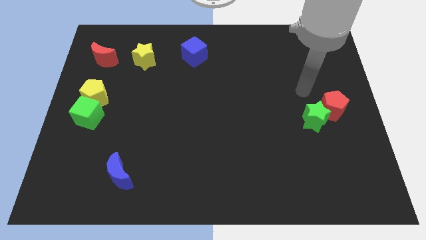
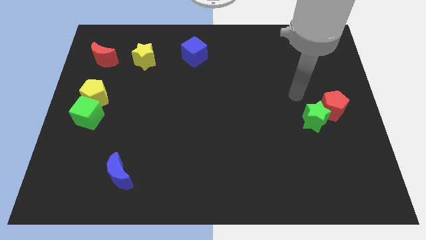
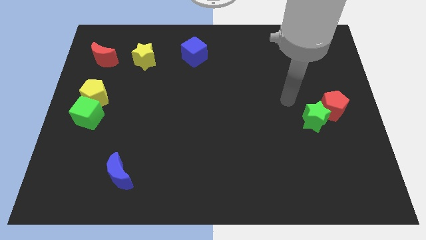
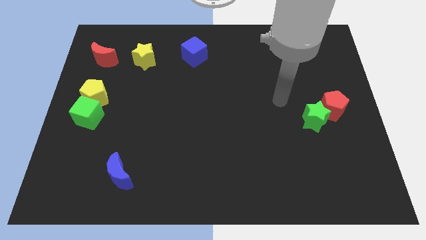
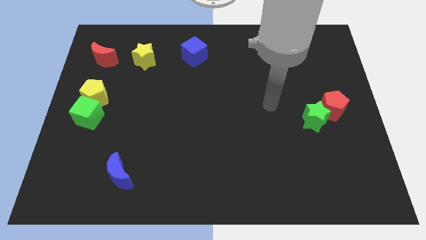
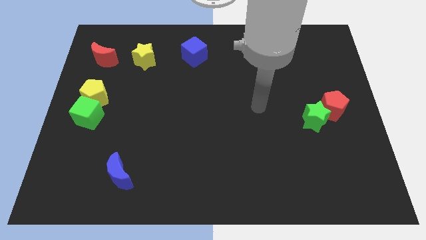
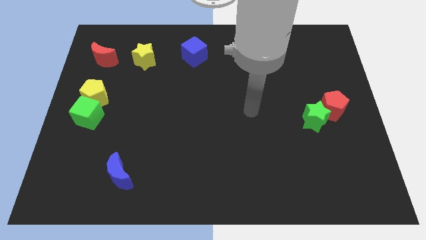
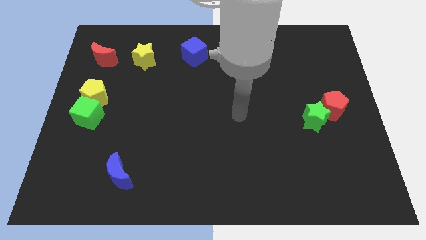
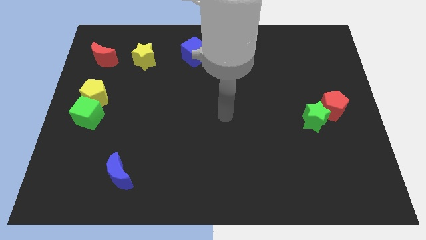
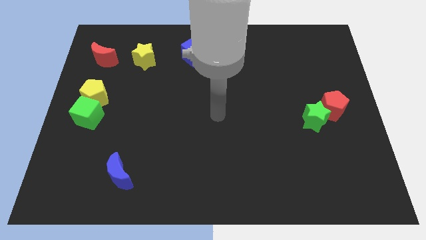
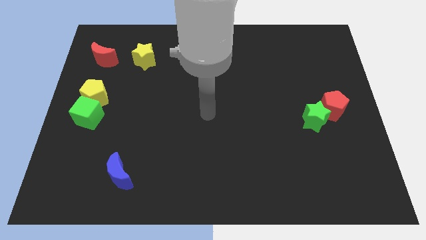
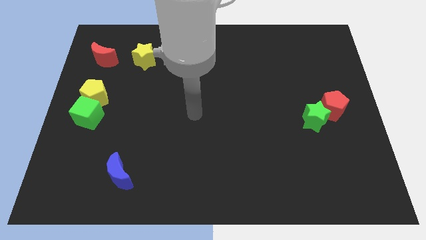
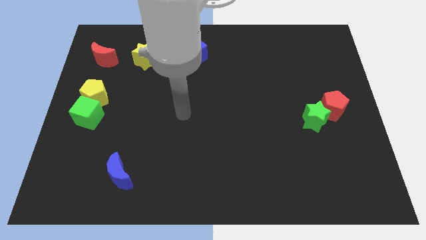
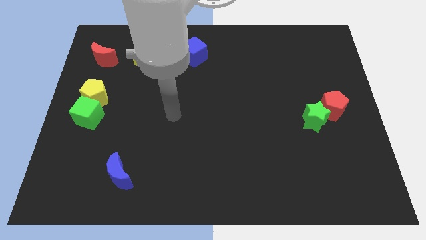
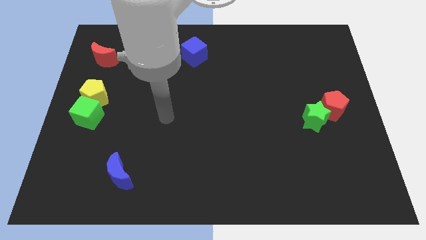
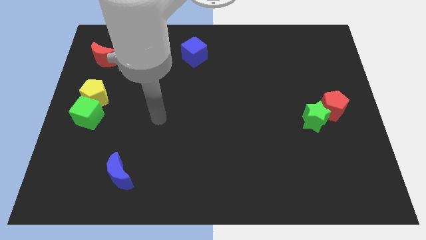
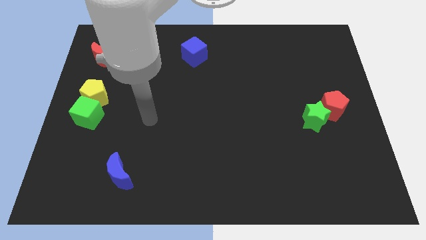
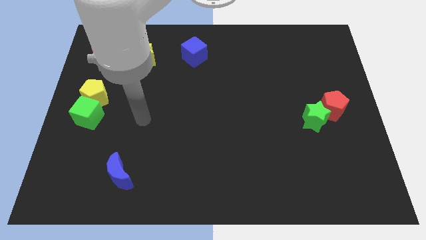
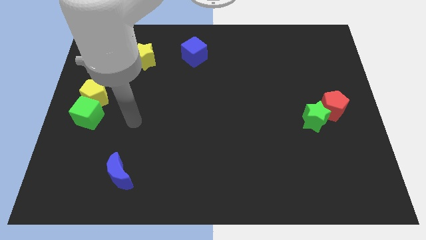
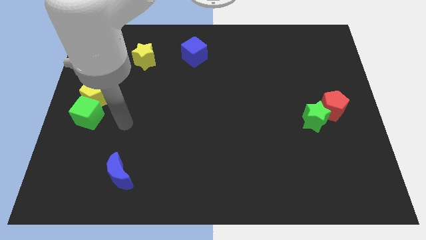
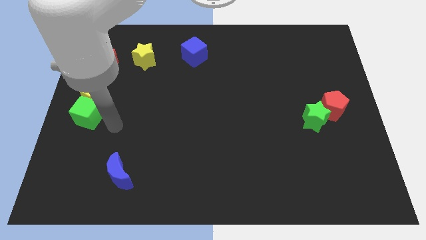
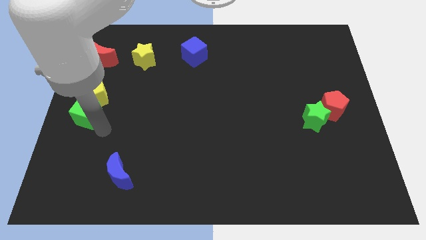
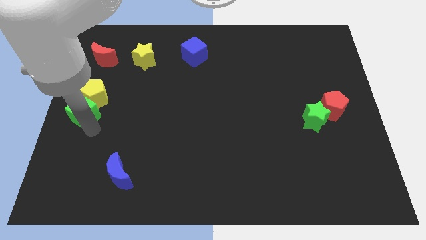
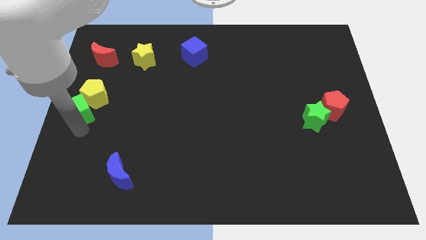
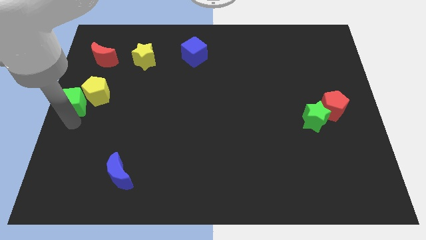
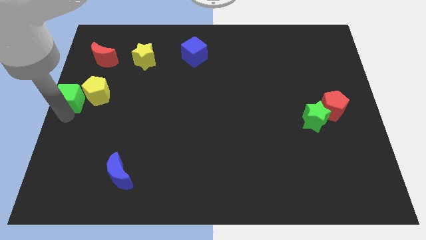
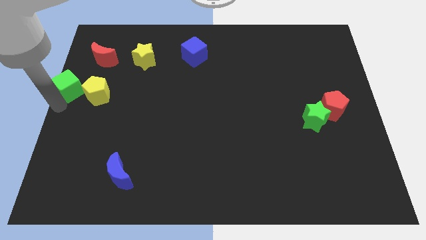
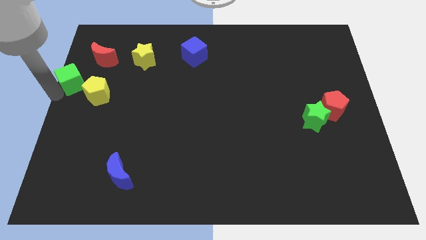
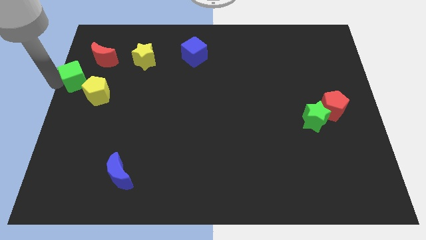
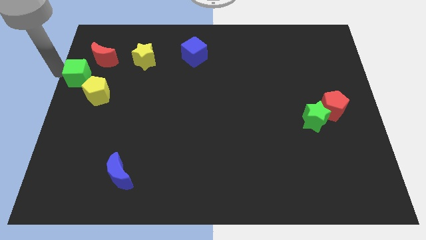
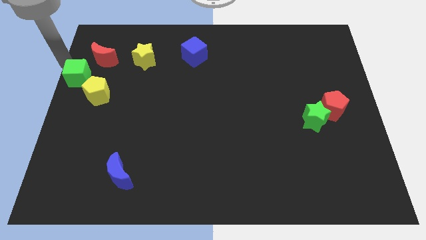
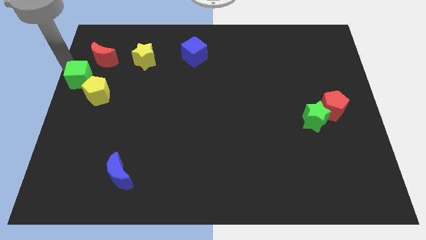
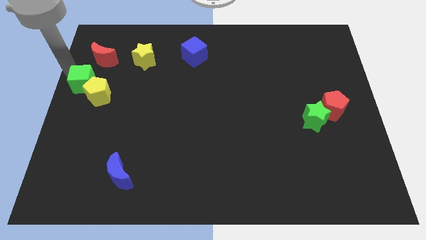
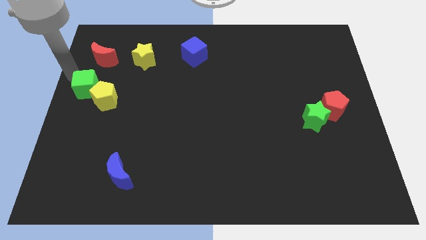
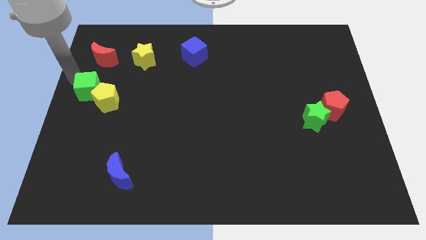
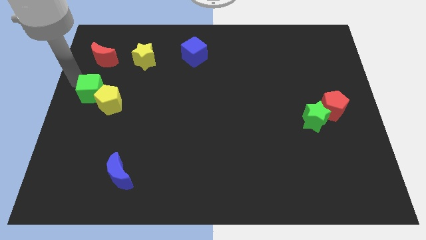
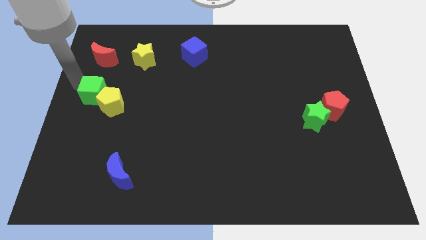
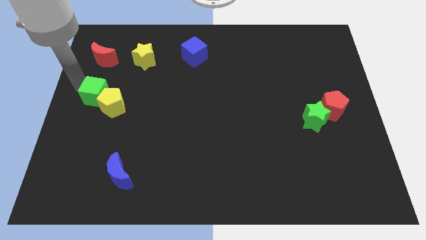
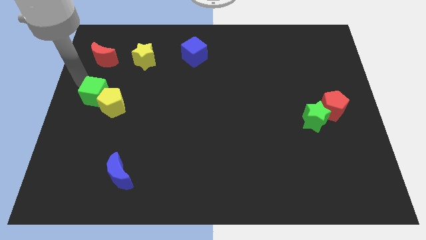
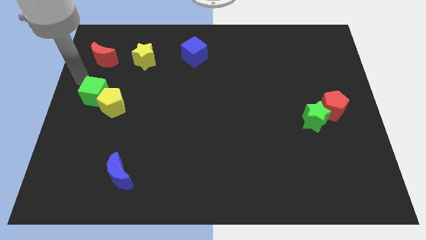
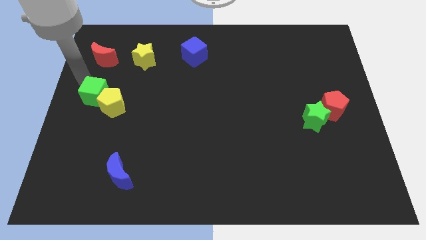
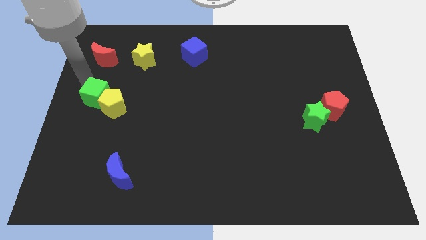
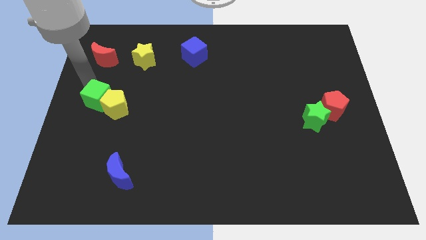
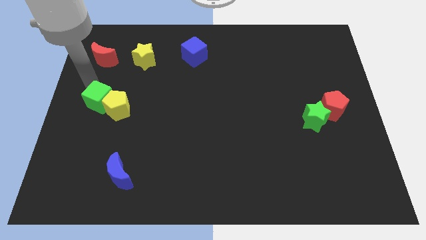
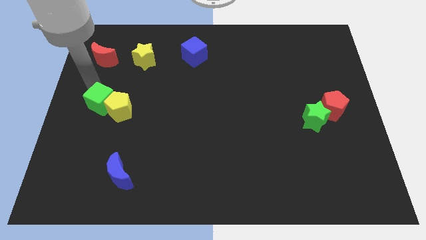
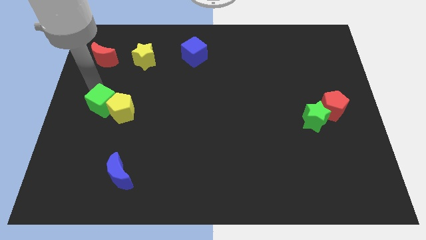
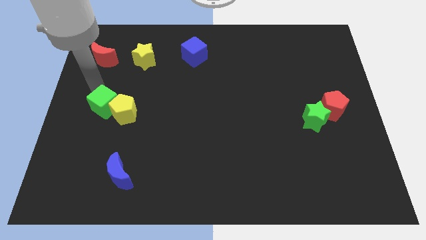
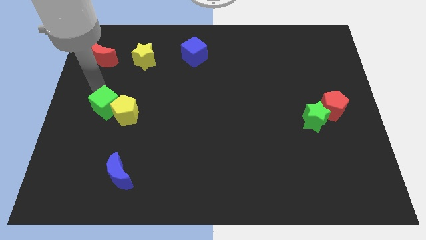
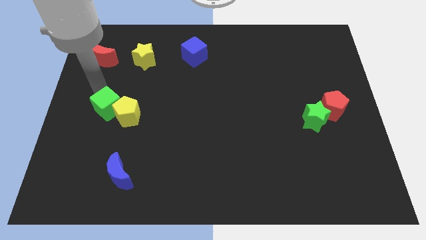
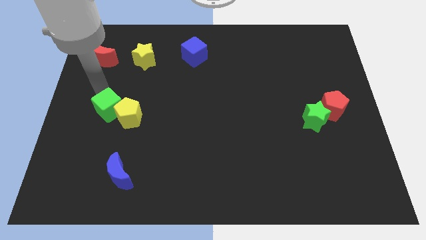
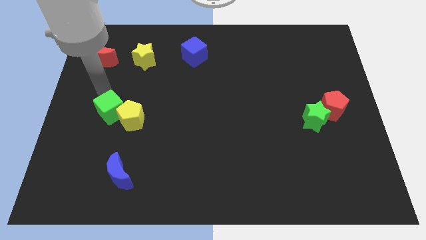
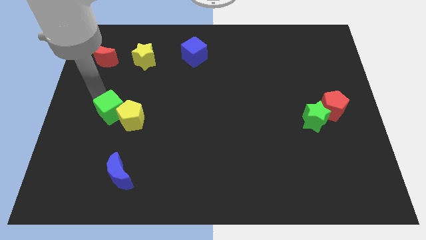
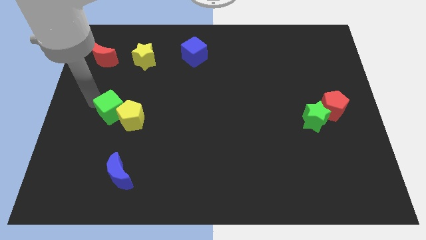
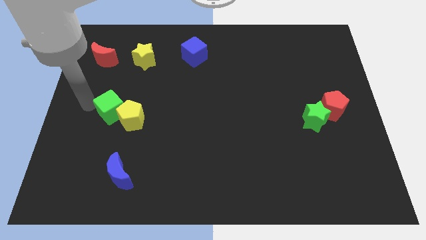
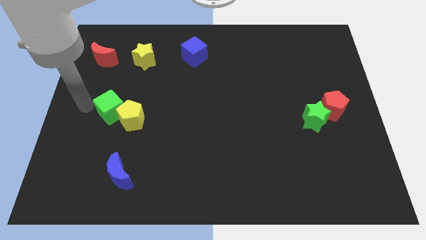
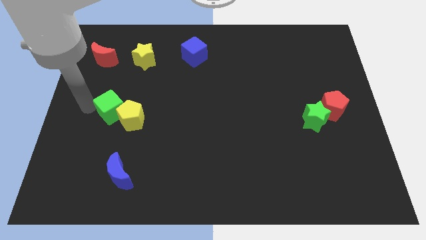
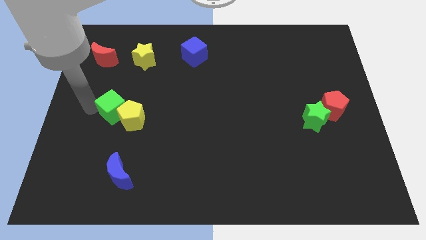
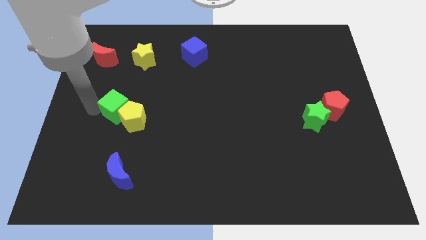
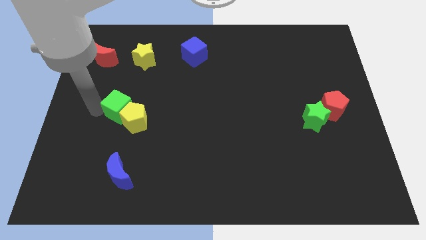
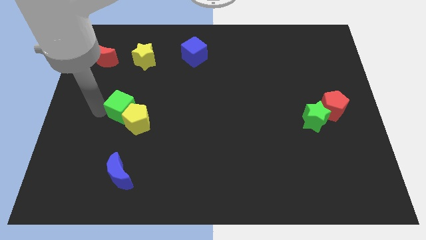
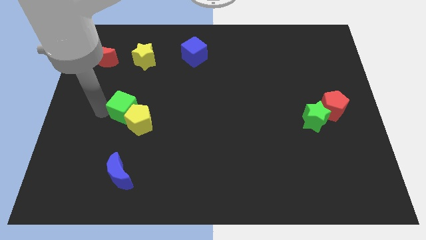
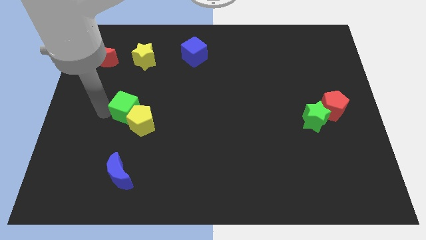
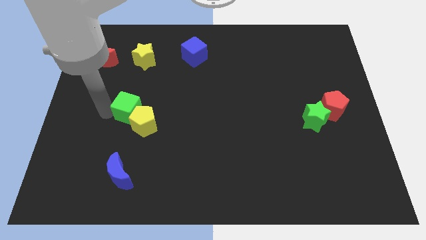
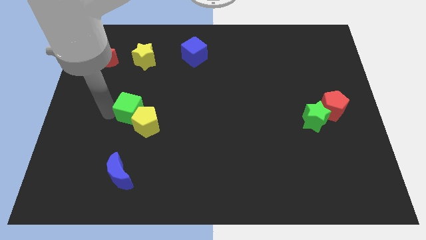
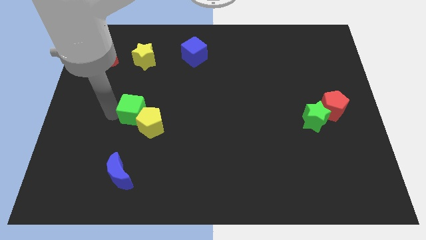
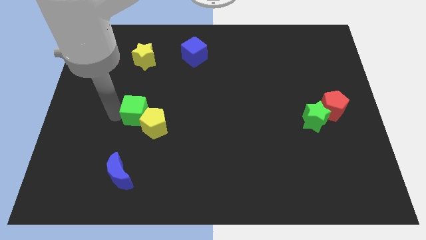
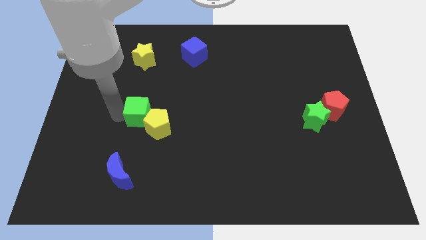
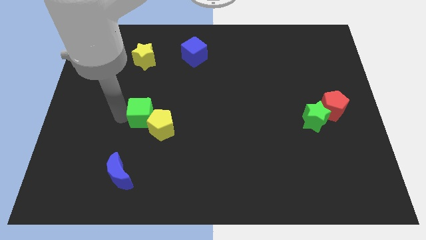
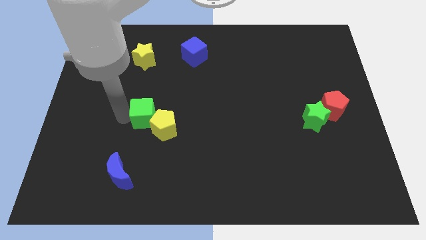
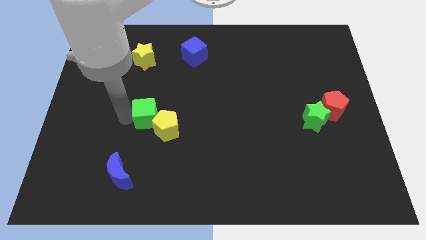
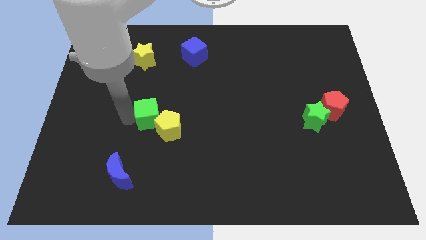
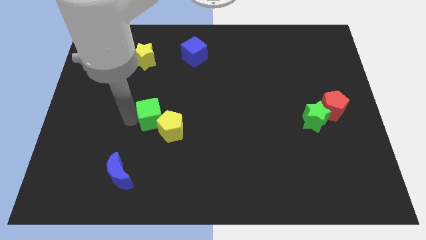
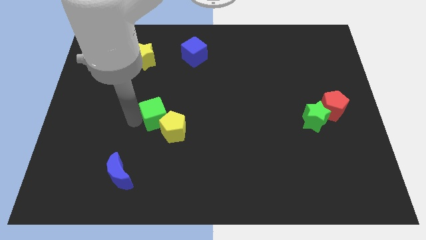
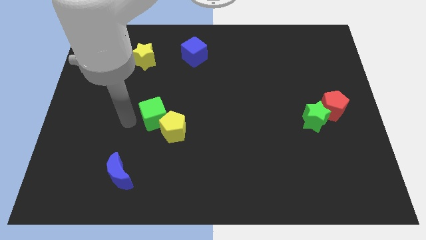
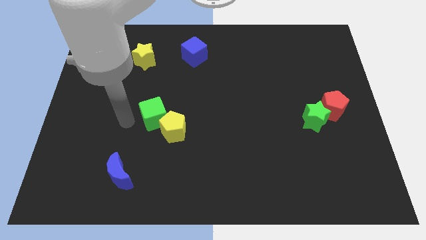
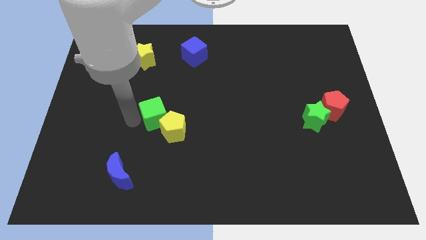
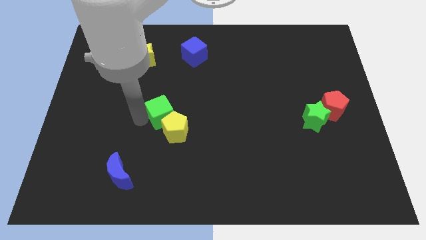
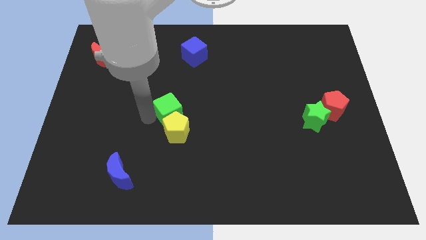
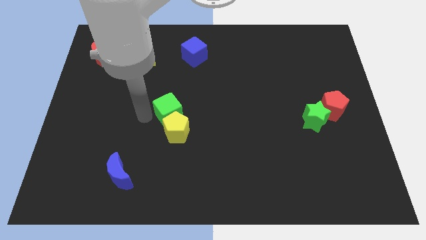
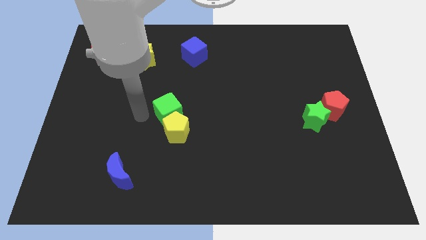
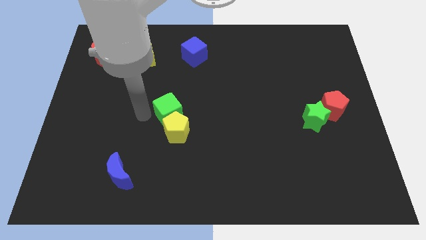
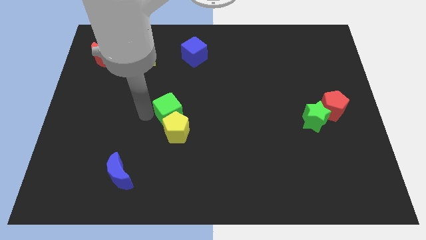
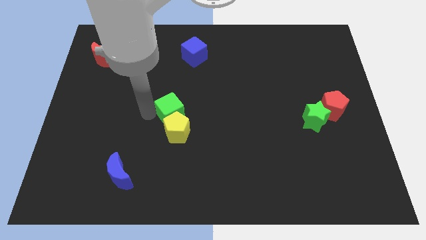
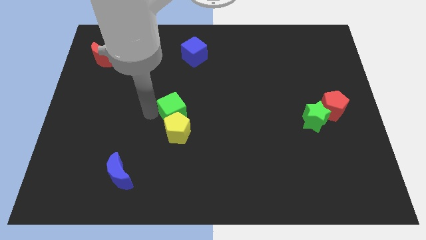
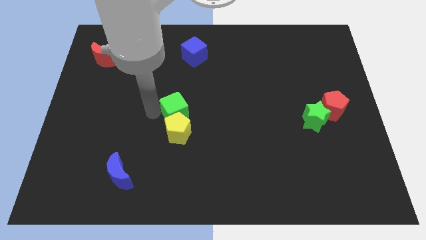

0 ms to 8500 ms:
move the green cube right
